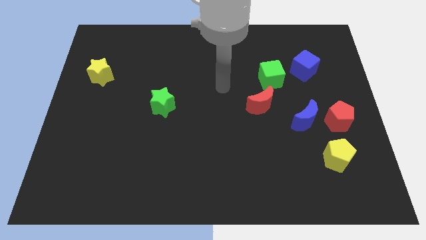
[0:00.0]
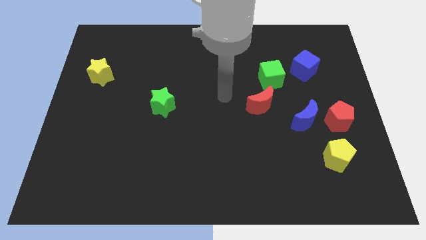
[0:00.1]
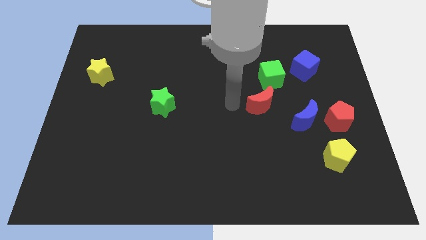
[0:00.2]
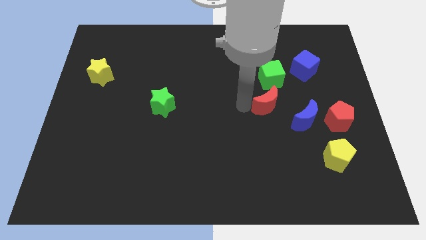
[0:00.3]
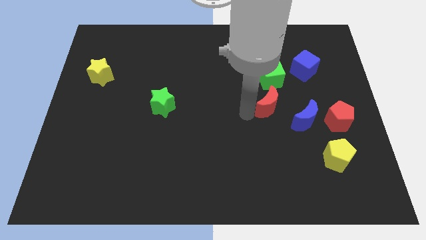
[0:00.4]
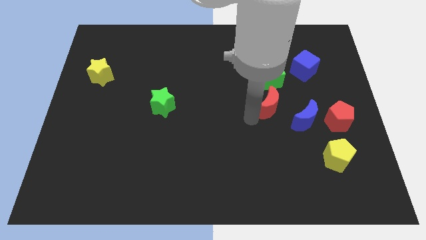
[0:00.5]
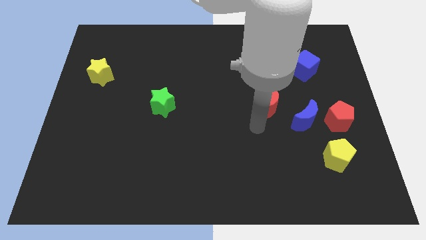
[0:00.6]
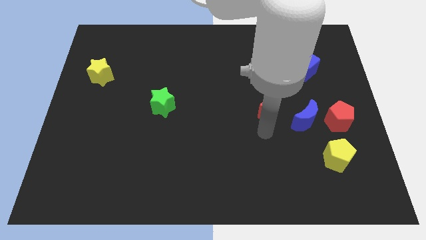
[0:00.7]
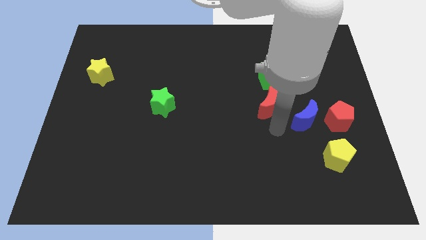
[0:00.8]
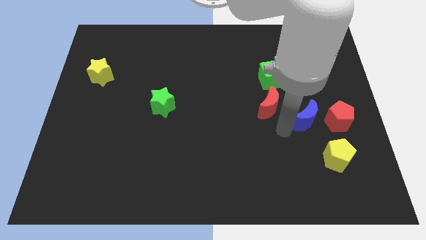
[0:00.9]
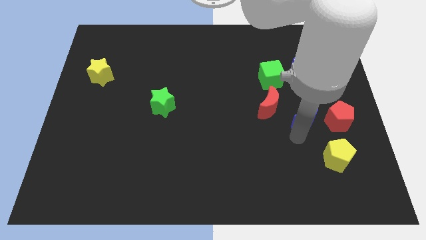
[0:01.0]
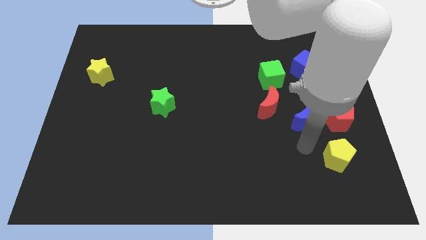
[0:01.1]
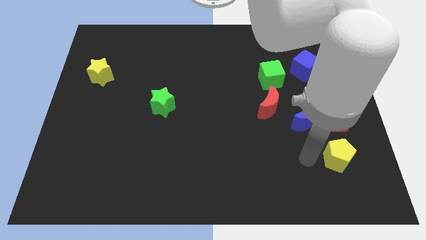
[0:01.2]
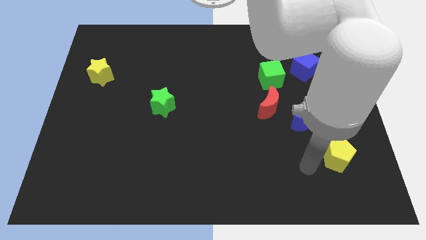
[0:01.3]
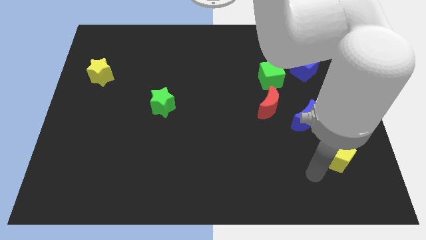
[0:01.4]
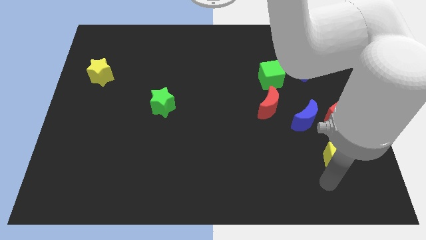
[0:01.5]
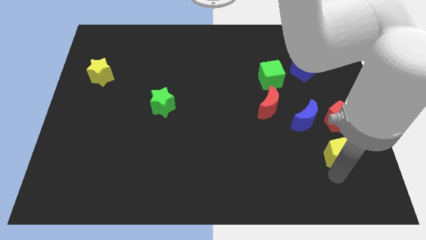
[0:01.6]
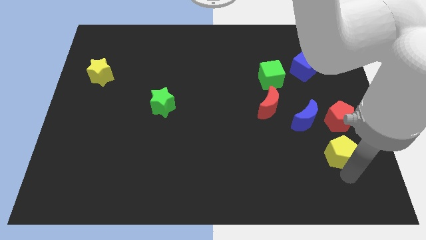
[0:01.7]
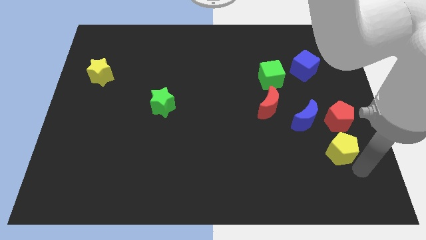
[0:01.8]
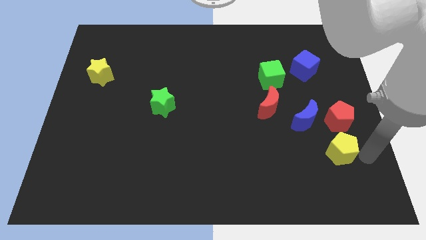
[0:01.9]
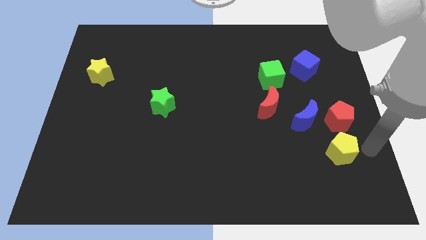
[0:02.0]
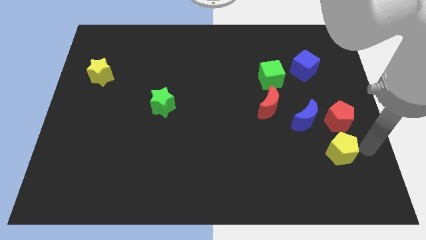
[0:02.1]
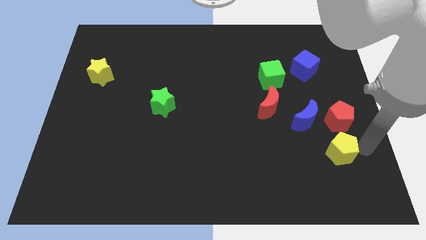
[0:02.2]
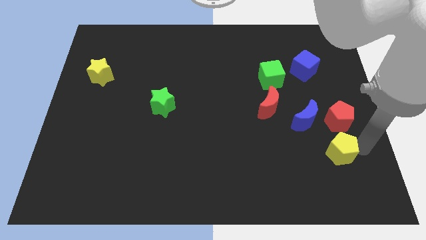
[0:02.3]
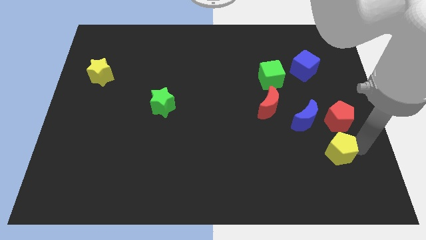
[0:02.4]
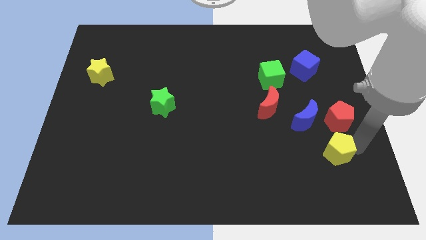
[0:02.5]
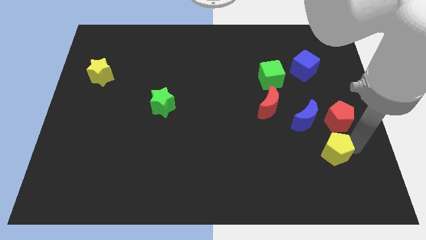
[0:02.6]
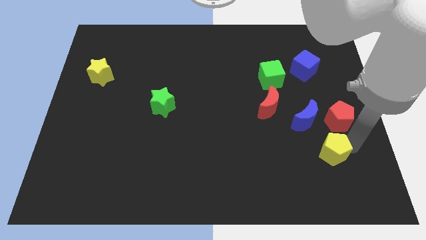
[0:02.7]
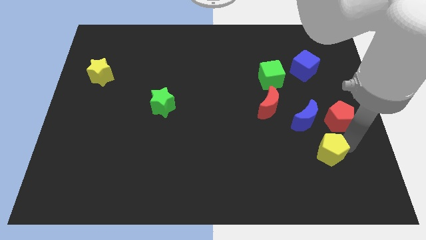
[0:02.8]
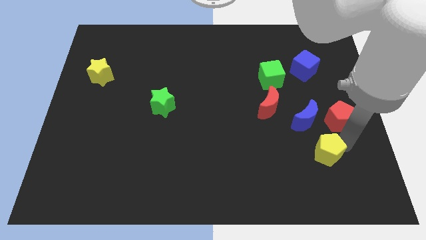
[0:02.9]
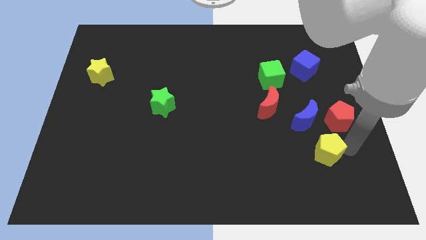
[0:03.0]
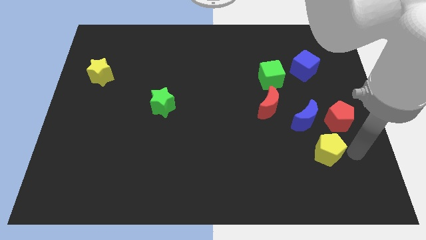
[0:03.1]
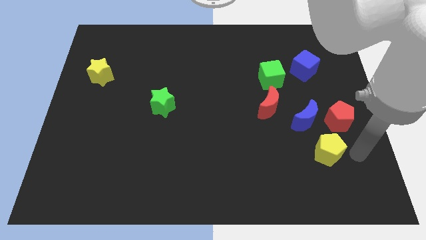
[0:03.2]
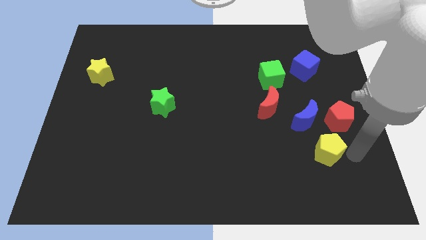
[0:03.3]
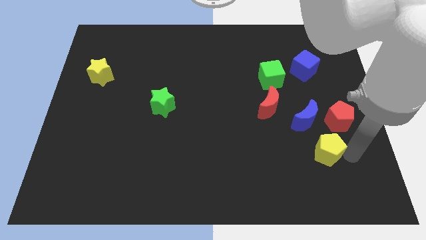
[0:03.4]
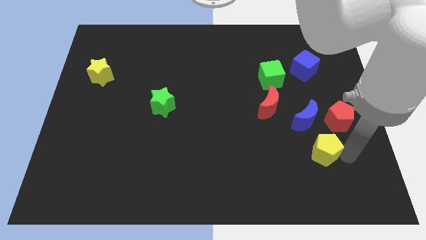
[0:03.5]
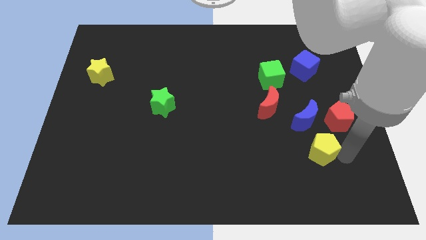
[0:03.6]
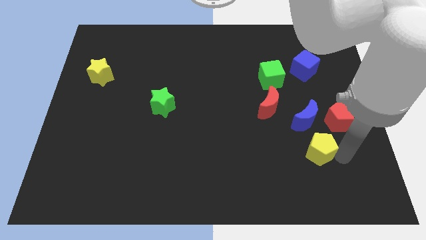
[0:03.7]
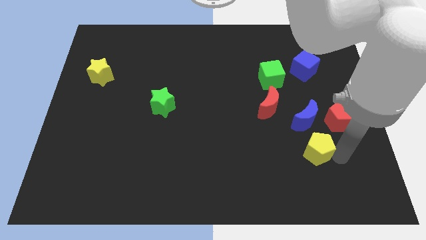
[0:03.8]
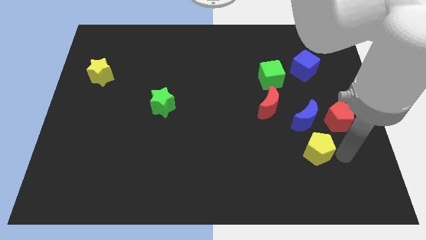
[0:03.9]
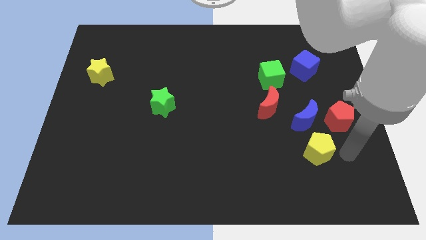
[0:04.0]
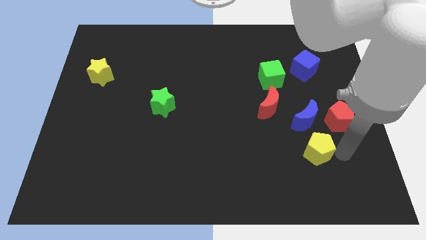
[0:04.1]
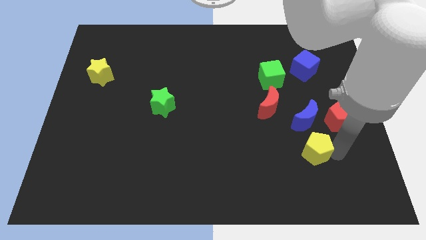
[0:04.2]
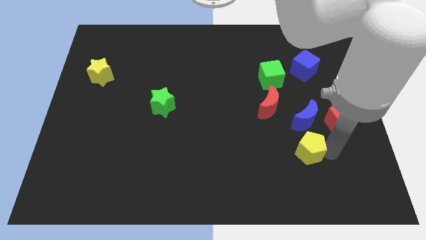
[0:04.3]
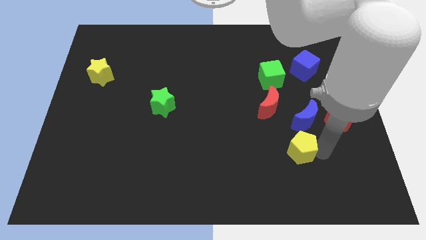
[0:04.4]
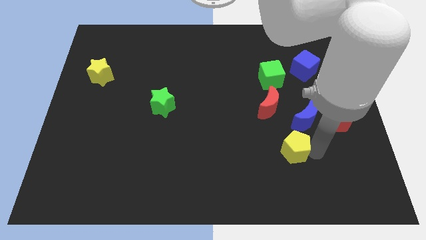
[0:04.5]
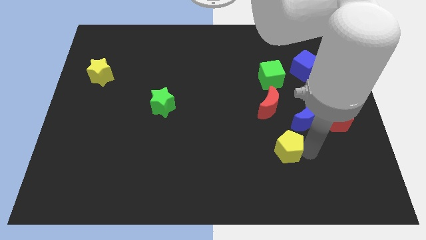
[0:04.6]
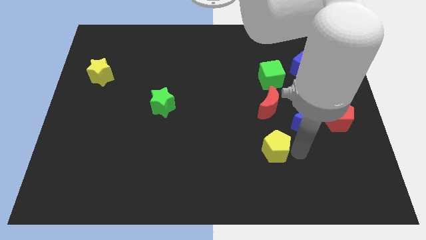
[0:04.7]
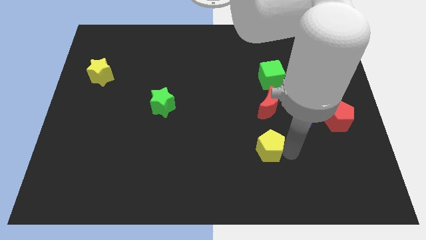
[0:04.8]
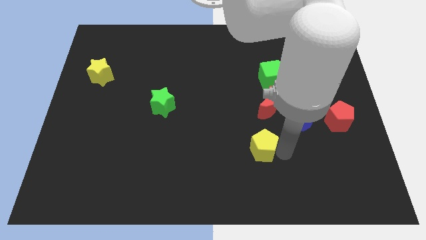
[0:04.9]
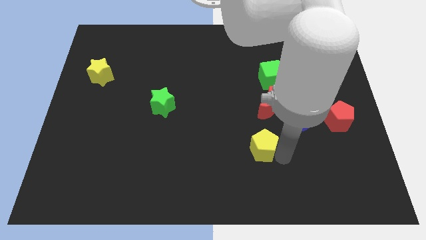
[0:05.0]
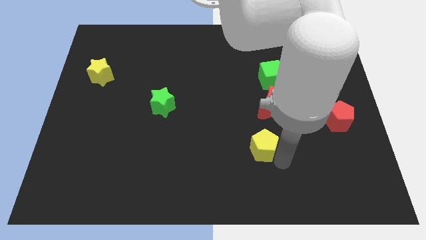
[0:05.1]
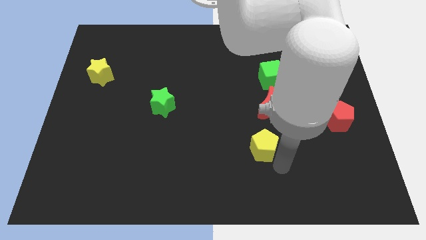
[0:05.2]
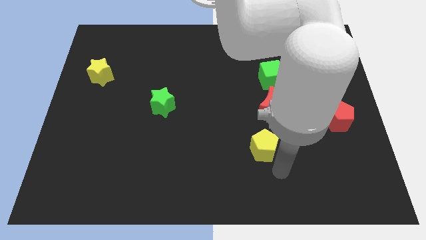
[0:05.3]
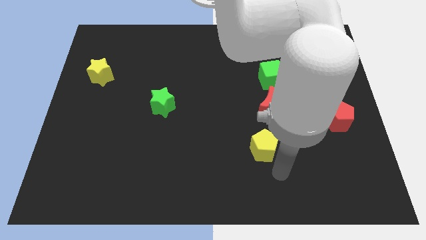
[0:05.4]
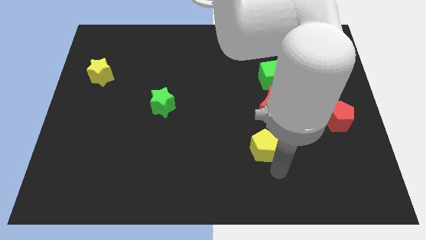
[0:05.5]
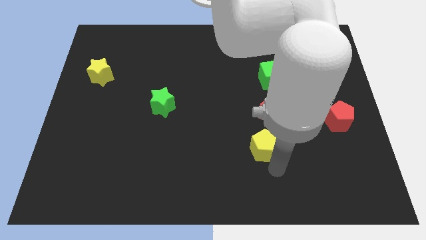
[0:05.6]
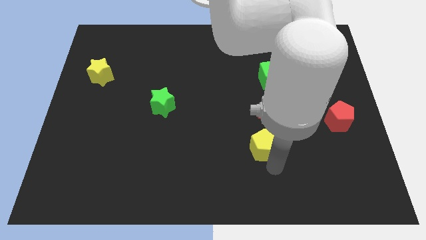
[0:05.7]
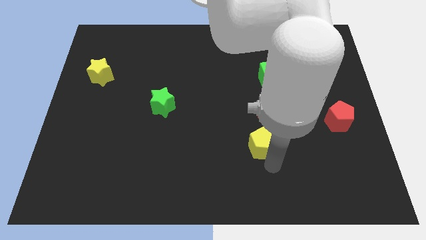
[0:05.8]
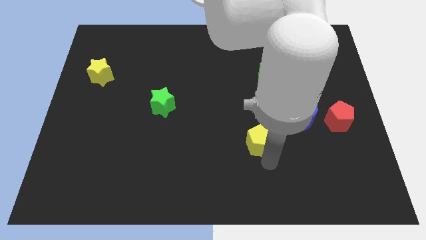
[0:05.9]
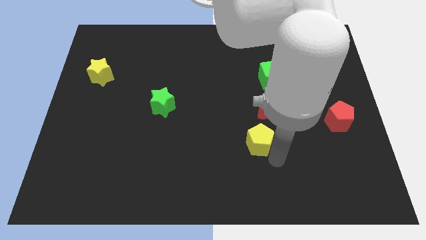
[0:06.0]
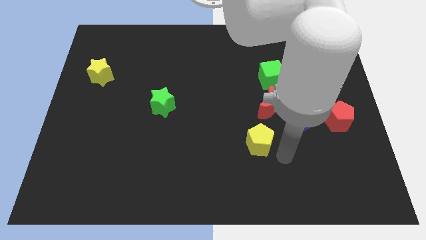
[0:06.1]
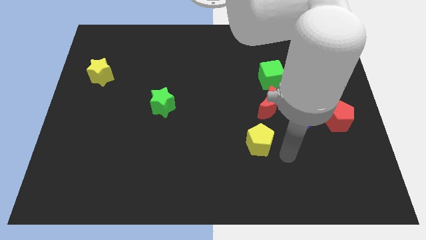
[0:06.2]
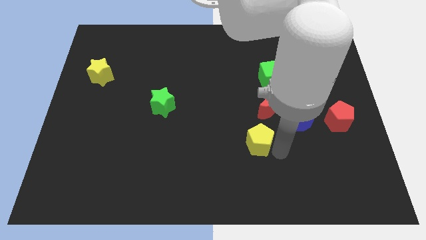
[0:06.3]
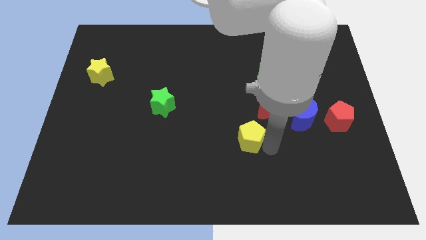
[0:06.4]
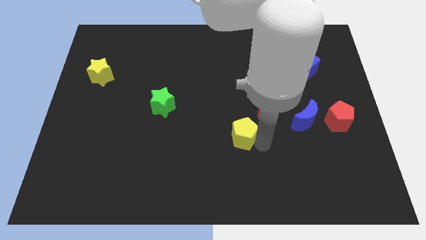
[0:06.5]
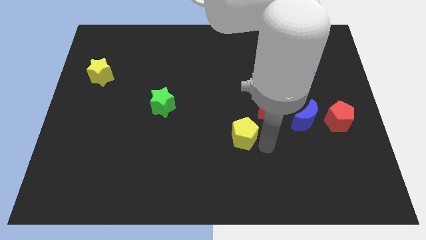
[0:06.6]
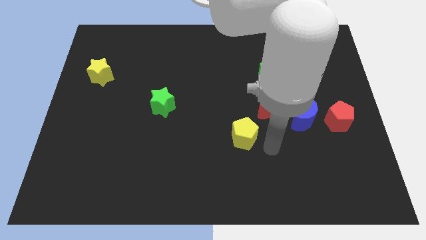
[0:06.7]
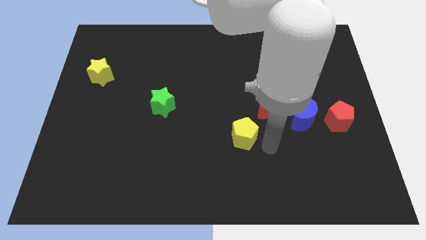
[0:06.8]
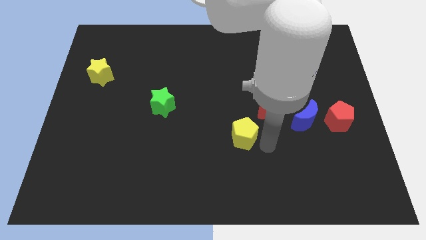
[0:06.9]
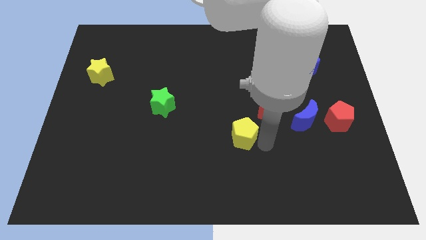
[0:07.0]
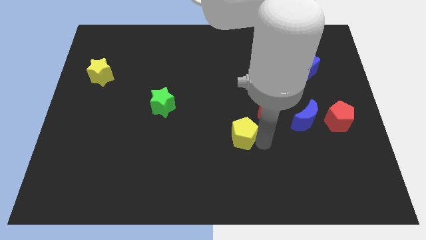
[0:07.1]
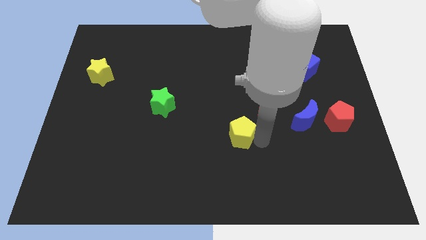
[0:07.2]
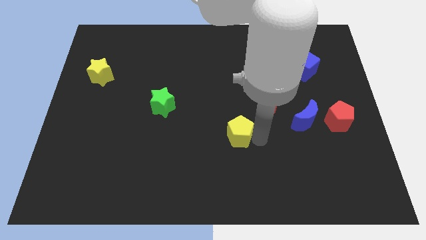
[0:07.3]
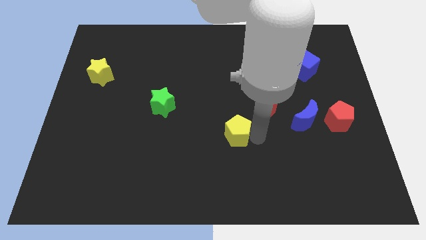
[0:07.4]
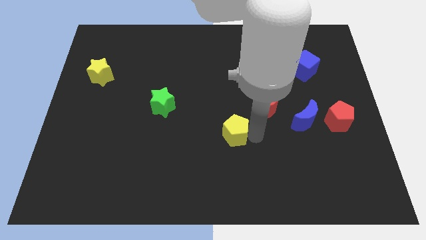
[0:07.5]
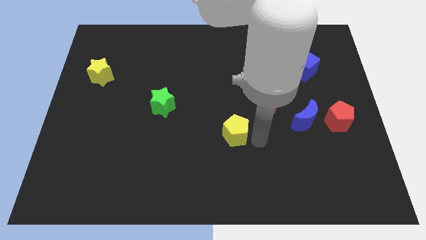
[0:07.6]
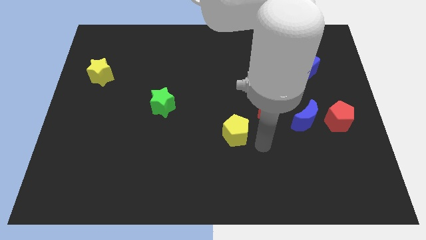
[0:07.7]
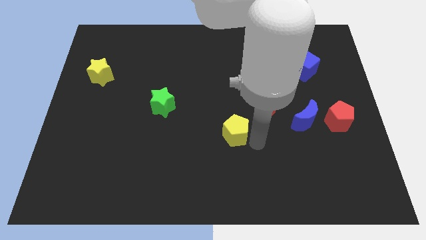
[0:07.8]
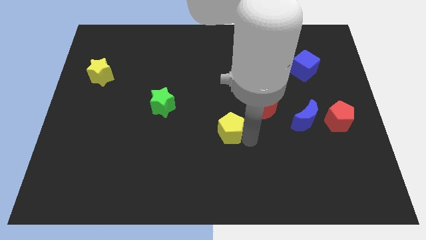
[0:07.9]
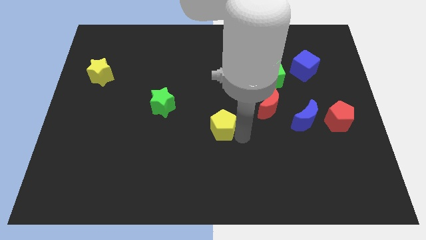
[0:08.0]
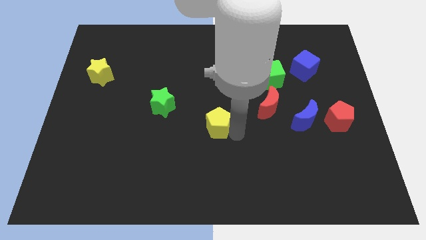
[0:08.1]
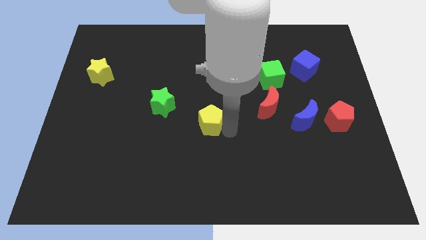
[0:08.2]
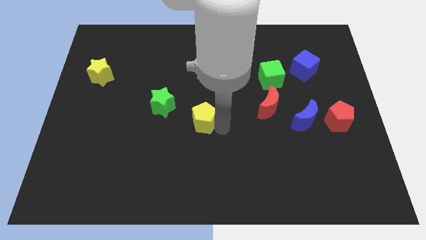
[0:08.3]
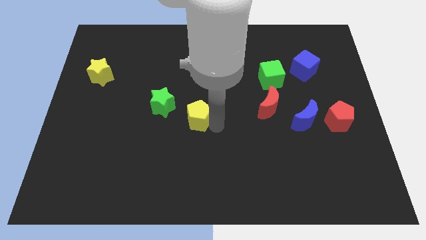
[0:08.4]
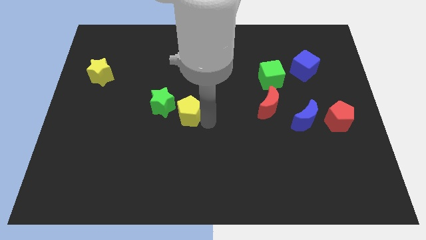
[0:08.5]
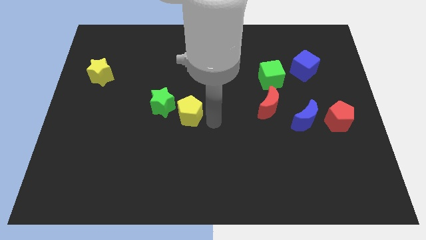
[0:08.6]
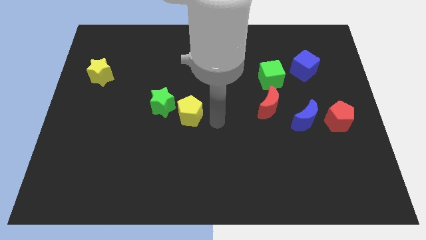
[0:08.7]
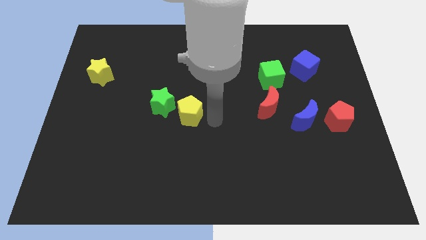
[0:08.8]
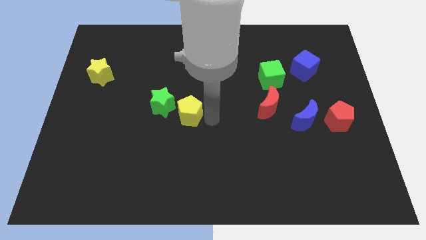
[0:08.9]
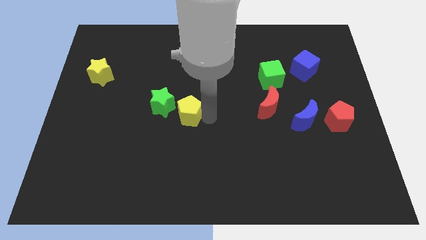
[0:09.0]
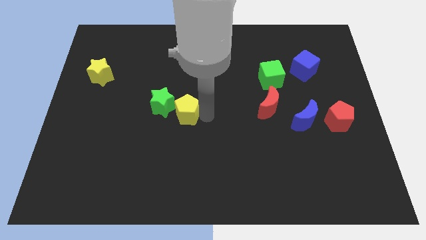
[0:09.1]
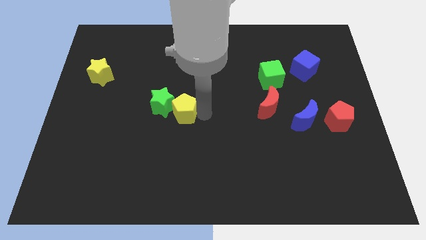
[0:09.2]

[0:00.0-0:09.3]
move the yellow pentagon towards the green star
